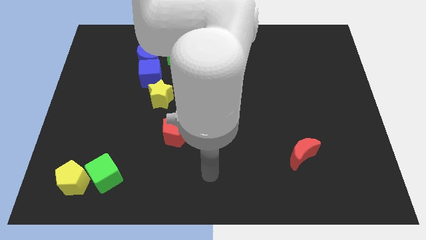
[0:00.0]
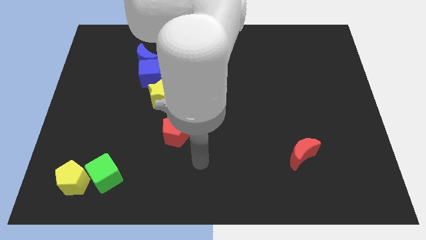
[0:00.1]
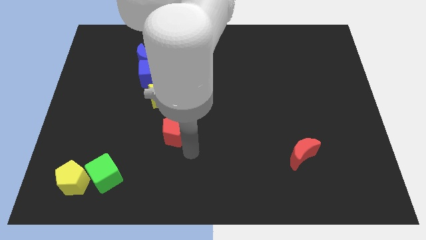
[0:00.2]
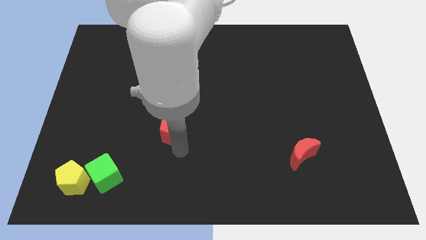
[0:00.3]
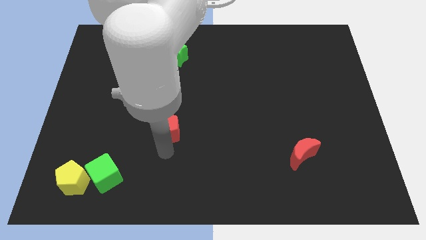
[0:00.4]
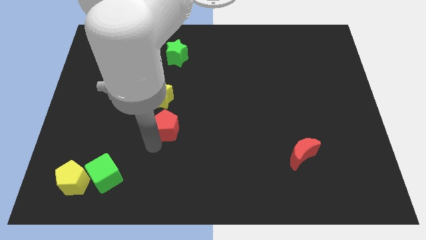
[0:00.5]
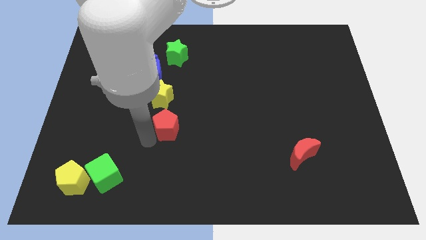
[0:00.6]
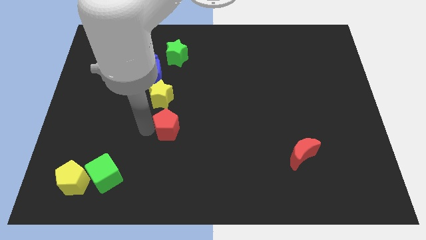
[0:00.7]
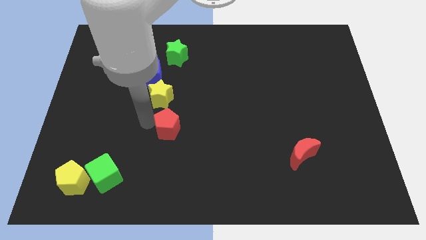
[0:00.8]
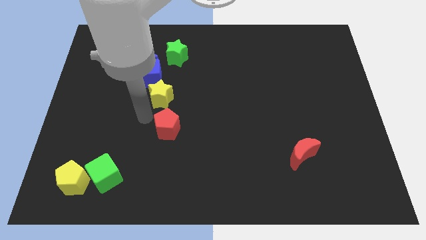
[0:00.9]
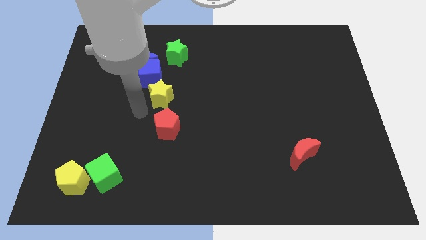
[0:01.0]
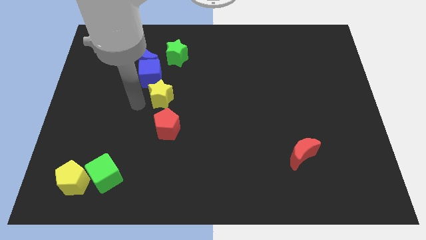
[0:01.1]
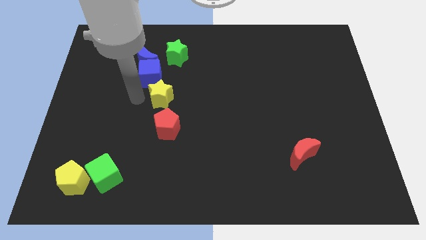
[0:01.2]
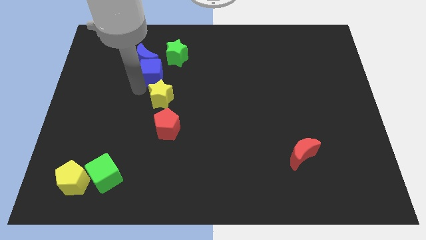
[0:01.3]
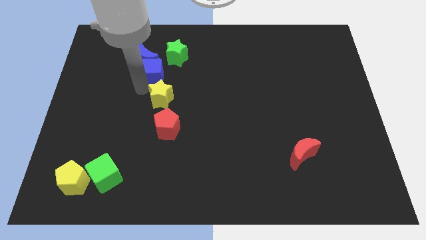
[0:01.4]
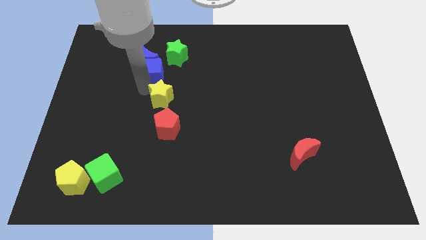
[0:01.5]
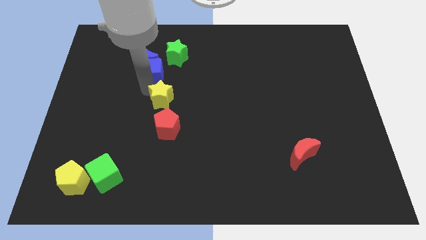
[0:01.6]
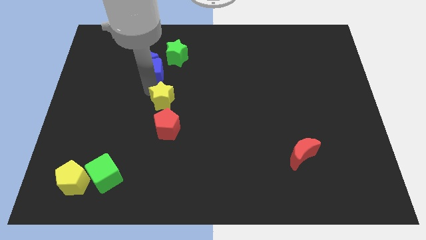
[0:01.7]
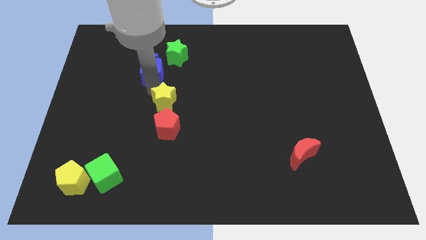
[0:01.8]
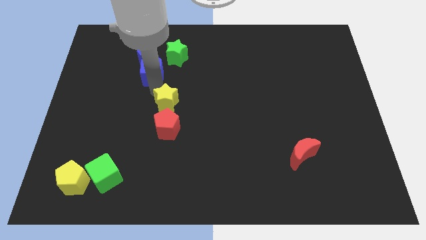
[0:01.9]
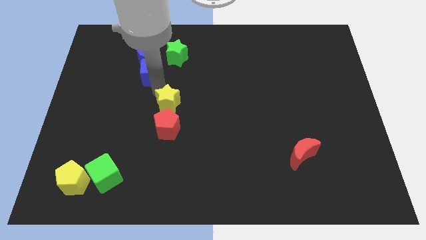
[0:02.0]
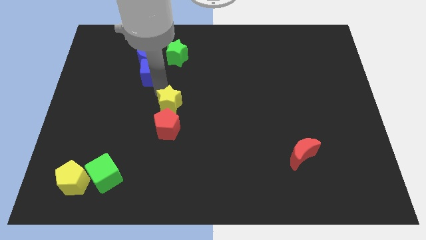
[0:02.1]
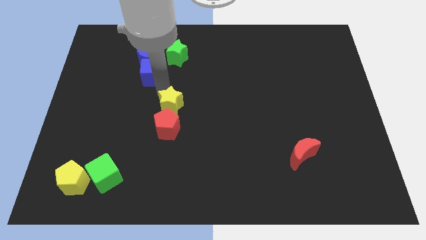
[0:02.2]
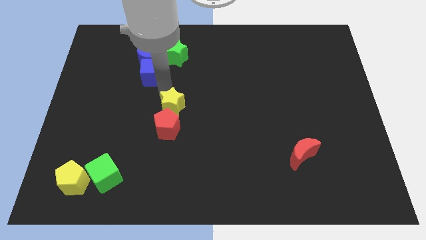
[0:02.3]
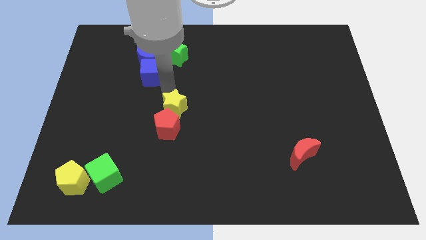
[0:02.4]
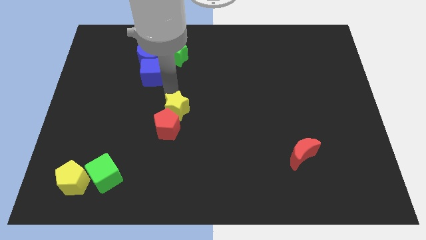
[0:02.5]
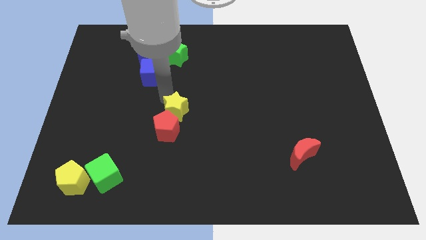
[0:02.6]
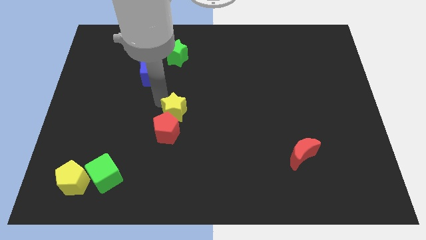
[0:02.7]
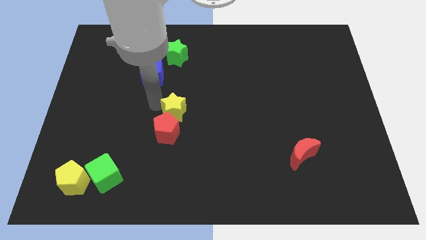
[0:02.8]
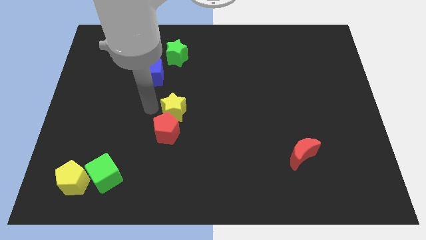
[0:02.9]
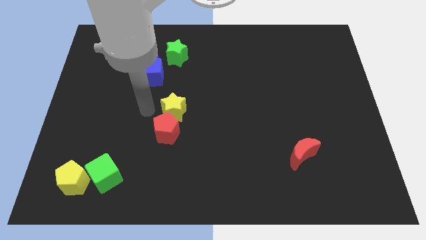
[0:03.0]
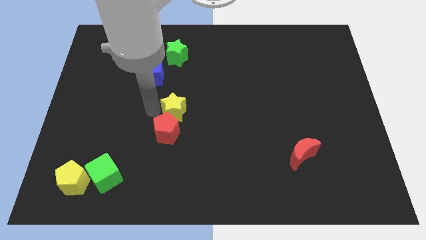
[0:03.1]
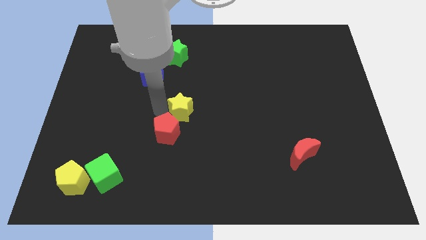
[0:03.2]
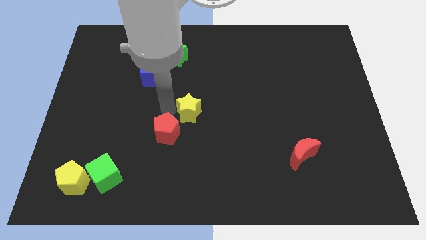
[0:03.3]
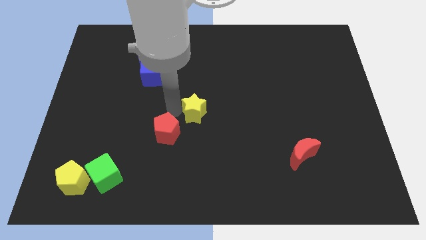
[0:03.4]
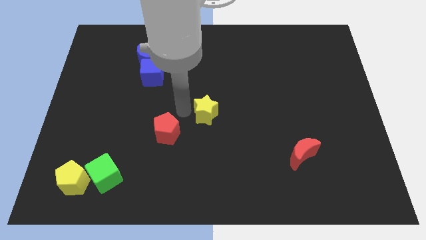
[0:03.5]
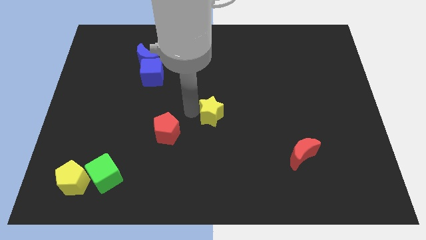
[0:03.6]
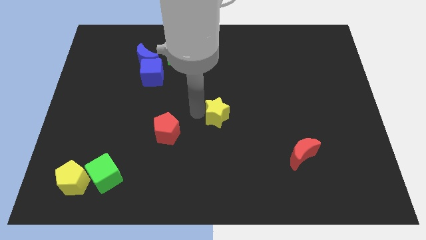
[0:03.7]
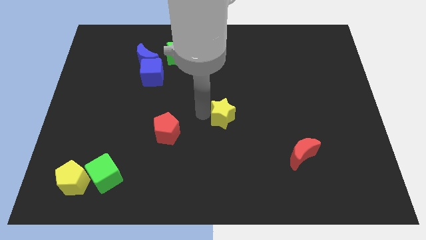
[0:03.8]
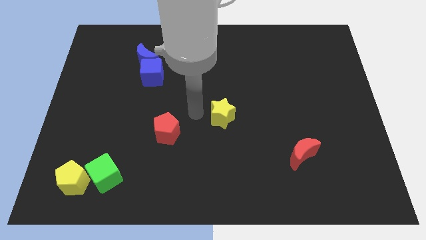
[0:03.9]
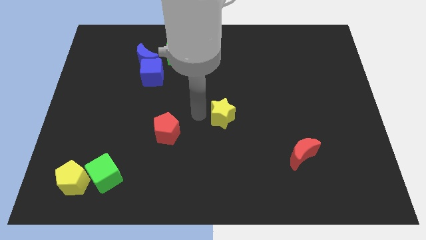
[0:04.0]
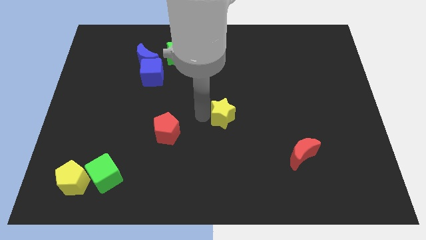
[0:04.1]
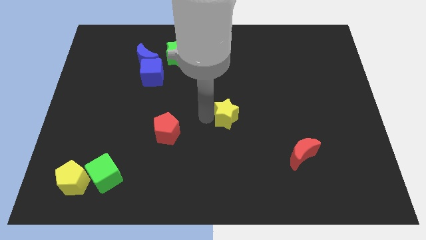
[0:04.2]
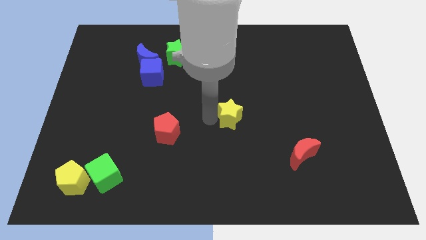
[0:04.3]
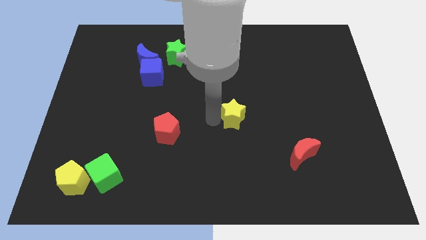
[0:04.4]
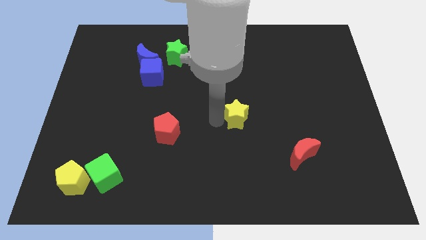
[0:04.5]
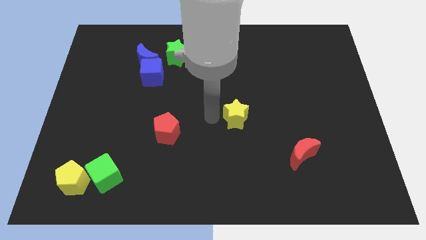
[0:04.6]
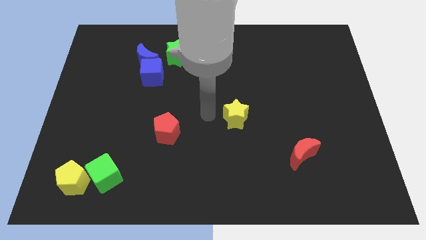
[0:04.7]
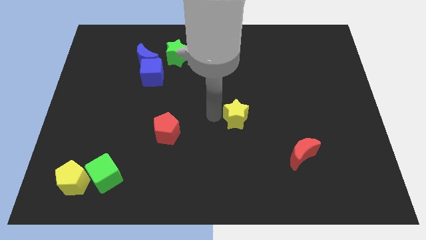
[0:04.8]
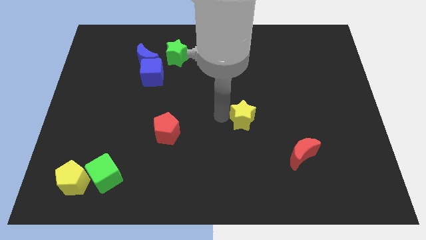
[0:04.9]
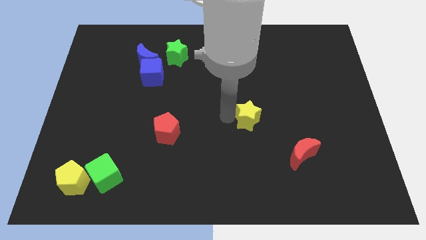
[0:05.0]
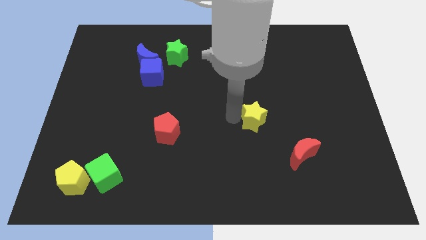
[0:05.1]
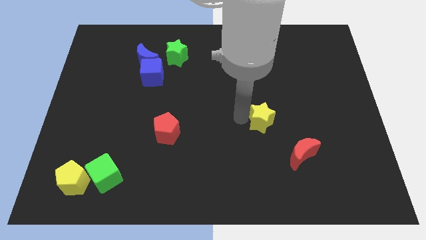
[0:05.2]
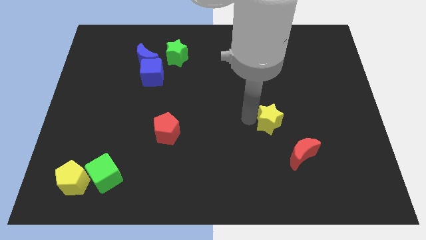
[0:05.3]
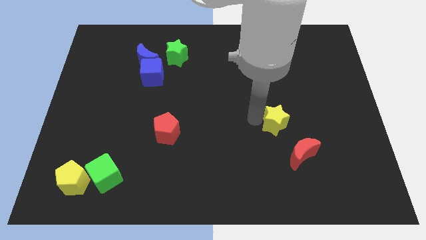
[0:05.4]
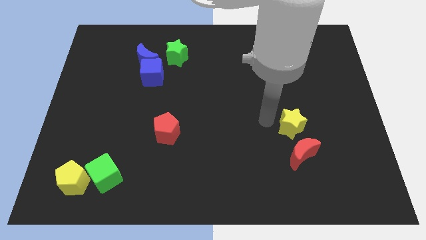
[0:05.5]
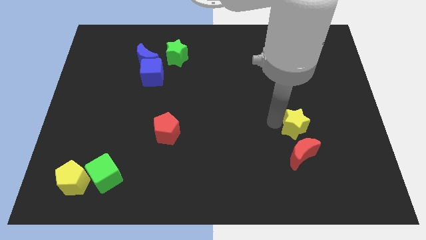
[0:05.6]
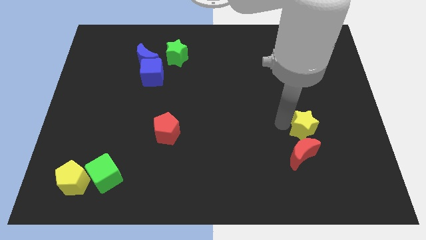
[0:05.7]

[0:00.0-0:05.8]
push the yellow star diagonally up and to the right of the red moon

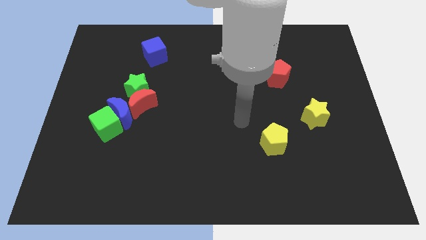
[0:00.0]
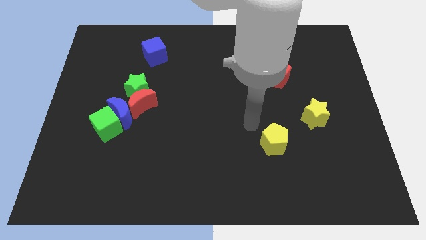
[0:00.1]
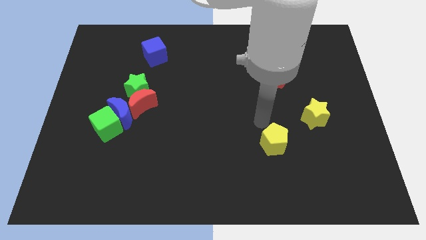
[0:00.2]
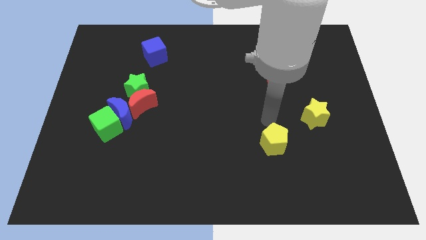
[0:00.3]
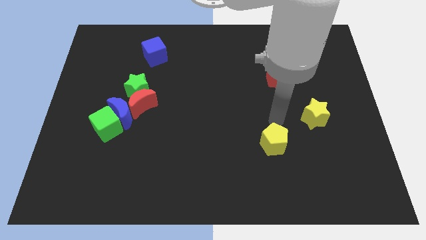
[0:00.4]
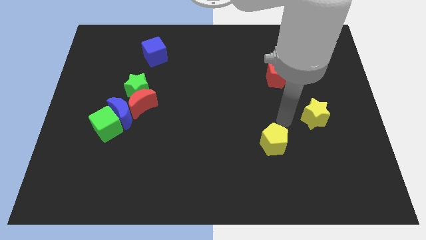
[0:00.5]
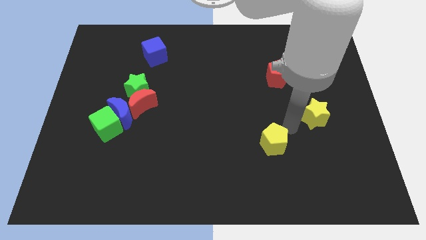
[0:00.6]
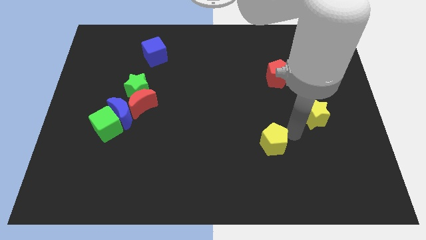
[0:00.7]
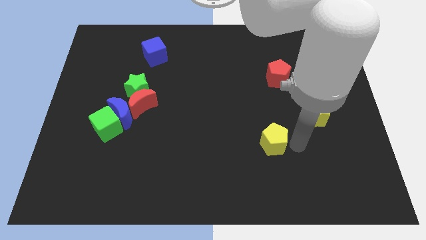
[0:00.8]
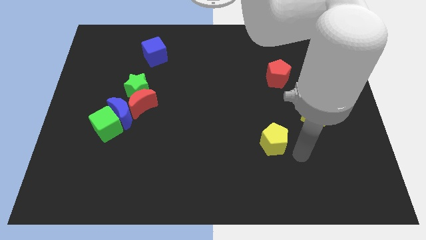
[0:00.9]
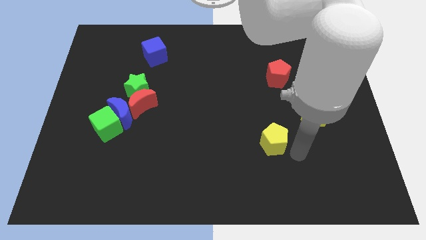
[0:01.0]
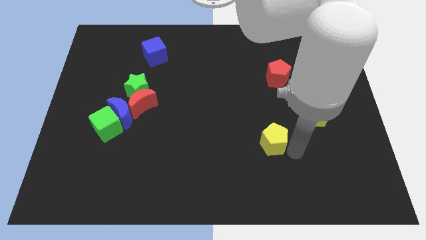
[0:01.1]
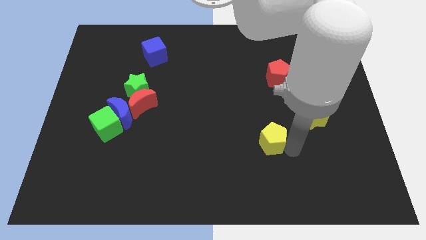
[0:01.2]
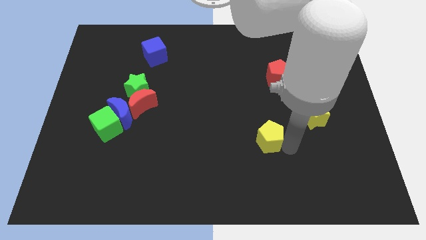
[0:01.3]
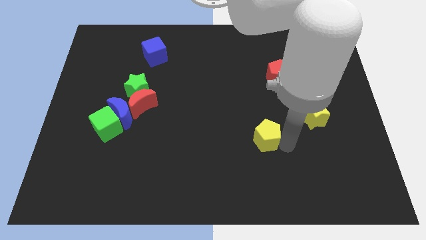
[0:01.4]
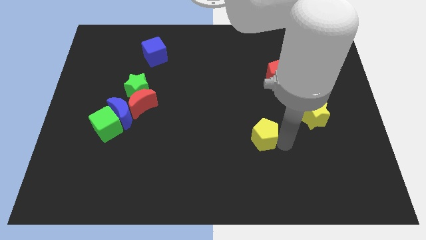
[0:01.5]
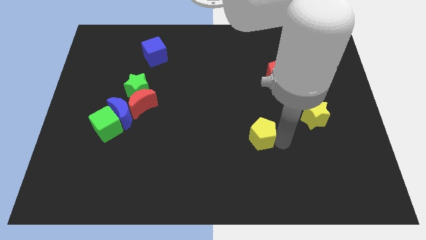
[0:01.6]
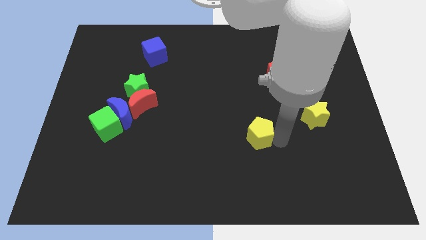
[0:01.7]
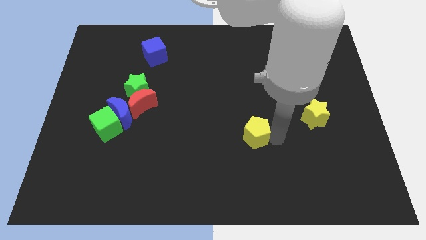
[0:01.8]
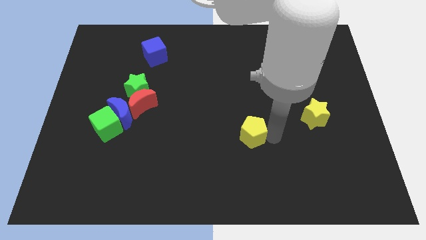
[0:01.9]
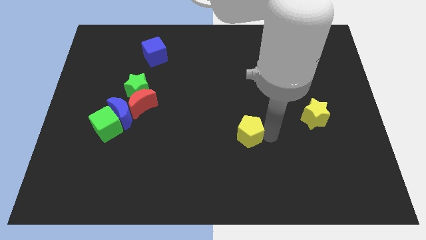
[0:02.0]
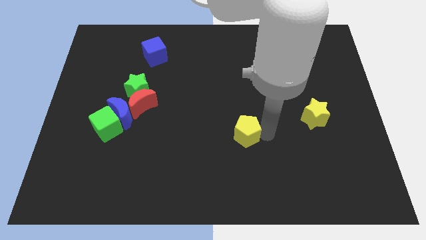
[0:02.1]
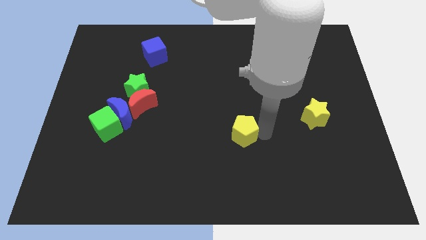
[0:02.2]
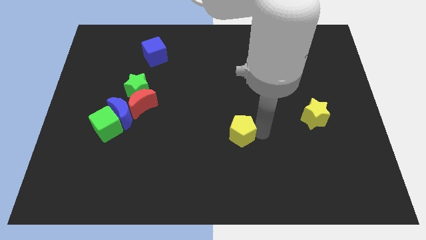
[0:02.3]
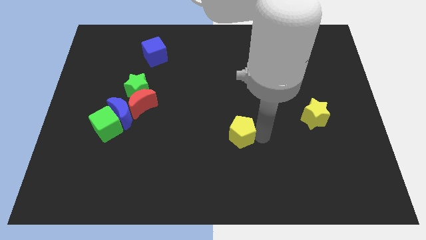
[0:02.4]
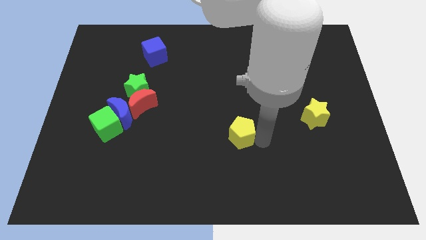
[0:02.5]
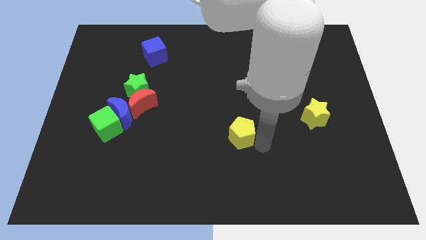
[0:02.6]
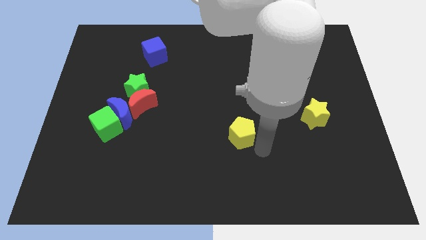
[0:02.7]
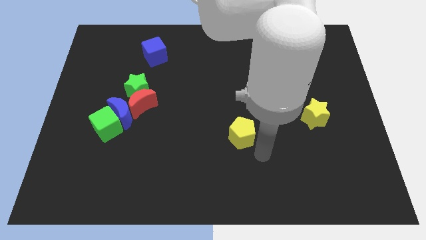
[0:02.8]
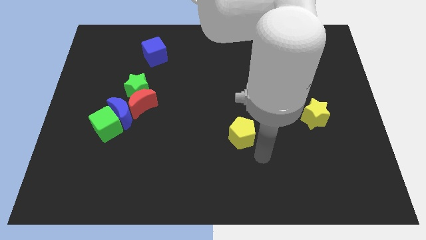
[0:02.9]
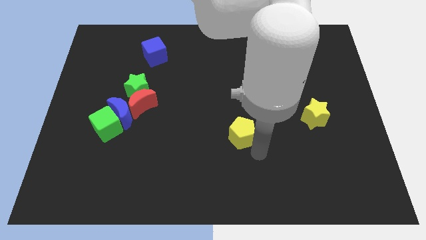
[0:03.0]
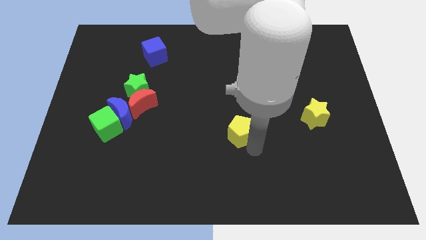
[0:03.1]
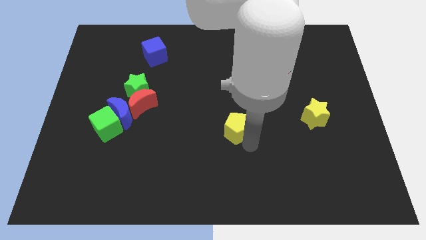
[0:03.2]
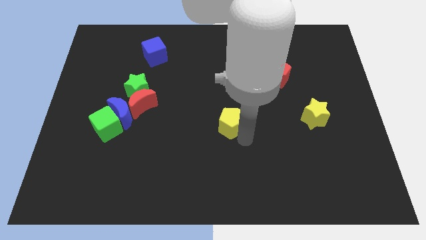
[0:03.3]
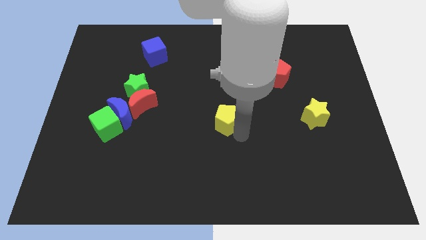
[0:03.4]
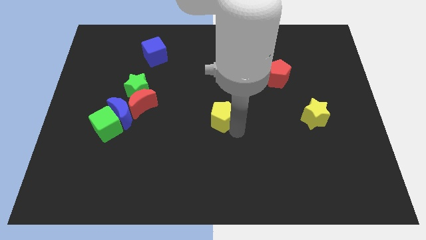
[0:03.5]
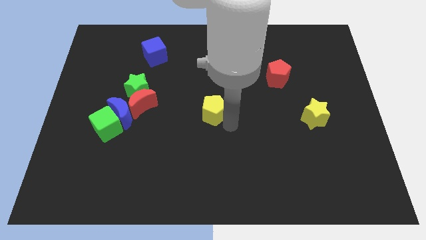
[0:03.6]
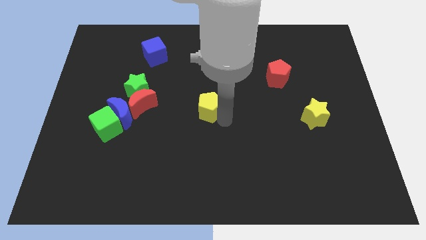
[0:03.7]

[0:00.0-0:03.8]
slide the yellow pentagon to the right of the red moon
